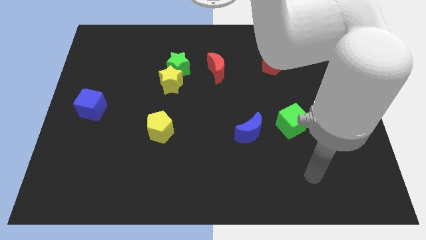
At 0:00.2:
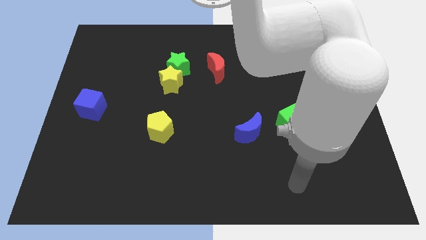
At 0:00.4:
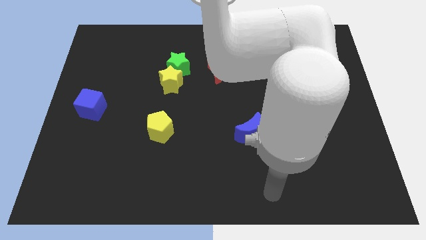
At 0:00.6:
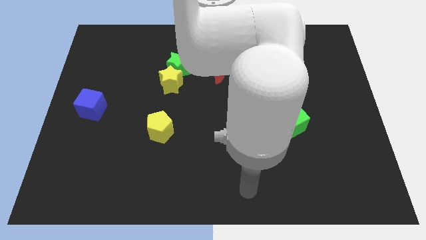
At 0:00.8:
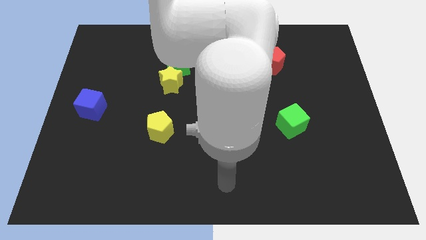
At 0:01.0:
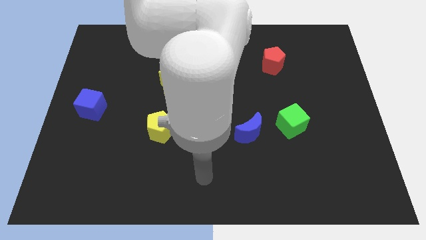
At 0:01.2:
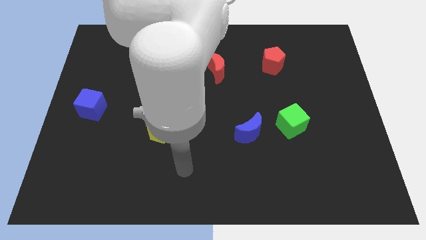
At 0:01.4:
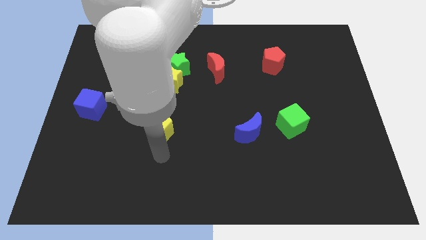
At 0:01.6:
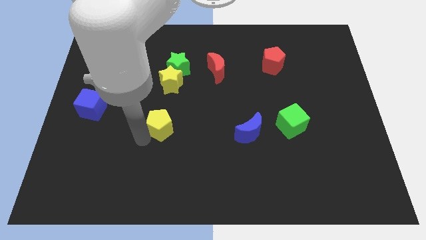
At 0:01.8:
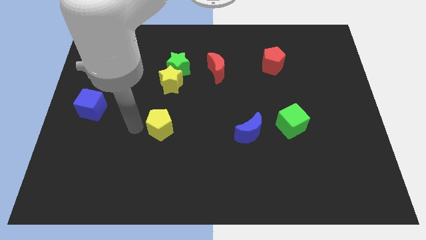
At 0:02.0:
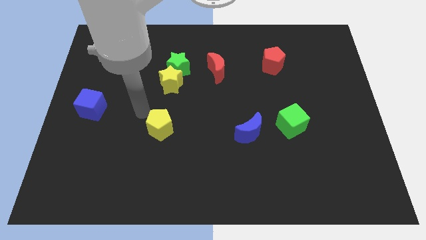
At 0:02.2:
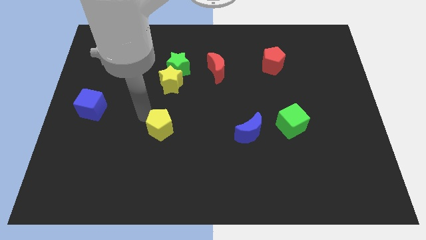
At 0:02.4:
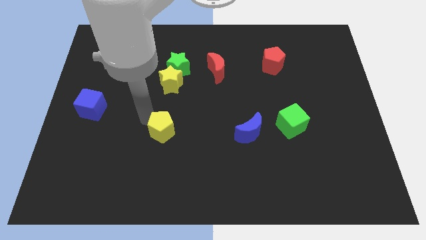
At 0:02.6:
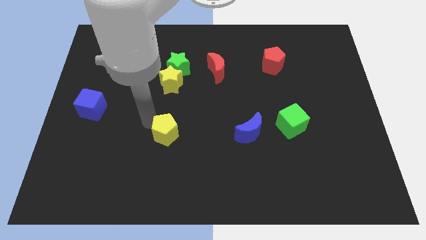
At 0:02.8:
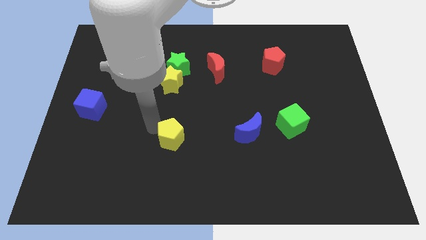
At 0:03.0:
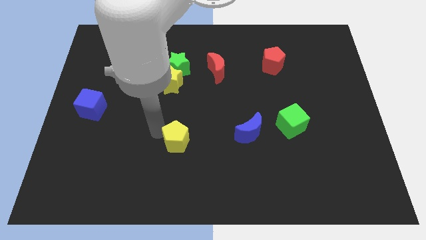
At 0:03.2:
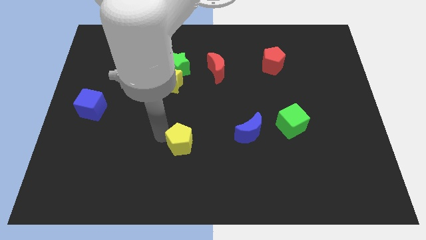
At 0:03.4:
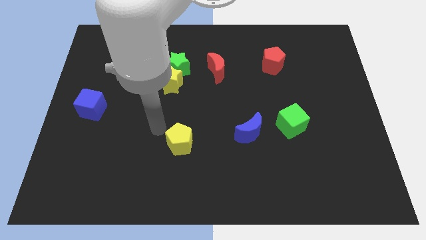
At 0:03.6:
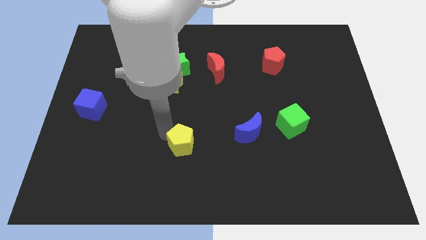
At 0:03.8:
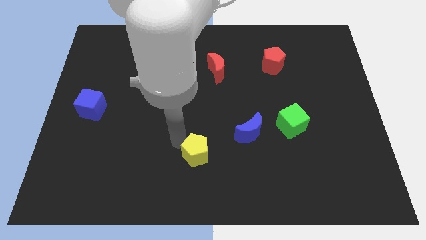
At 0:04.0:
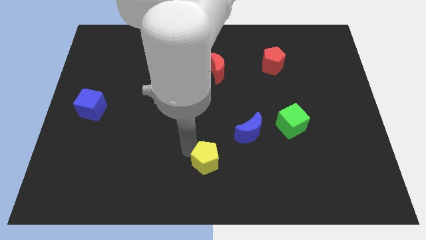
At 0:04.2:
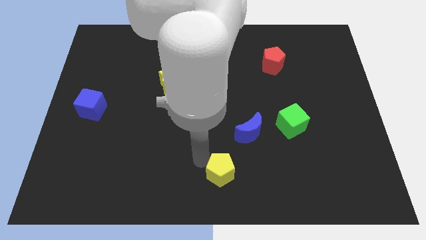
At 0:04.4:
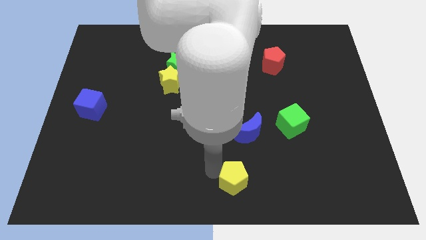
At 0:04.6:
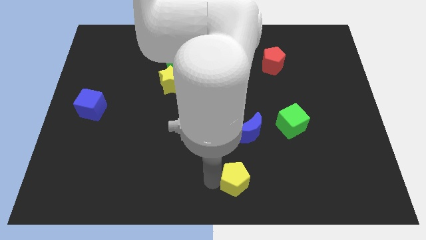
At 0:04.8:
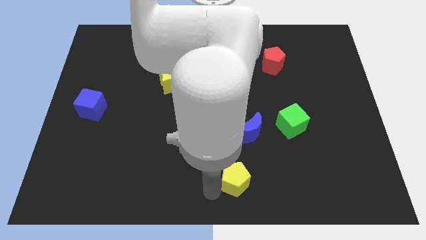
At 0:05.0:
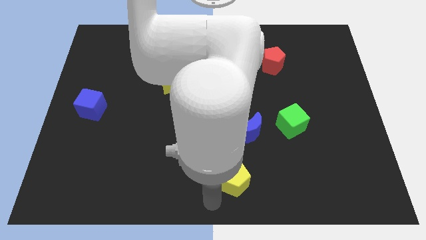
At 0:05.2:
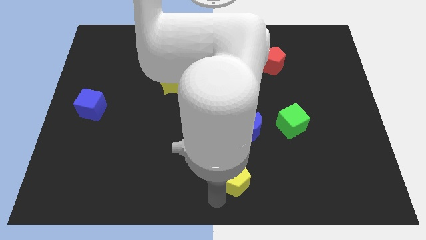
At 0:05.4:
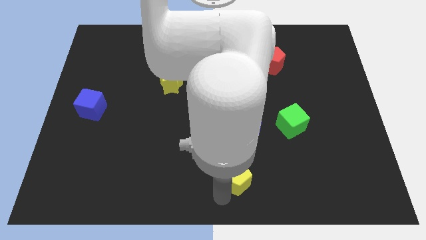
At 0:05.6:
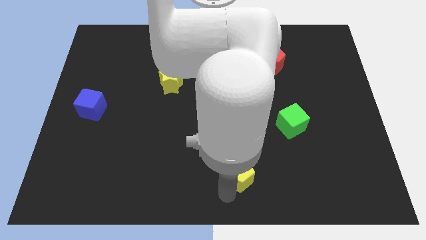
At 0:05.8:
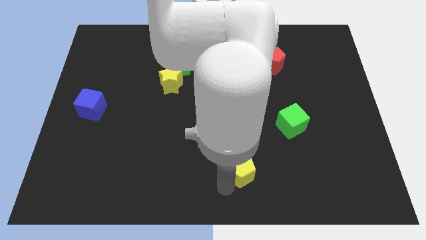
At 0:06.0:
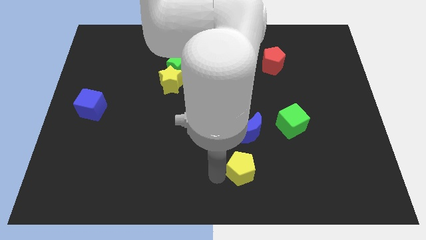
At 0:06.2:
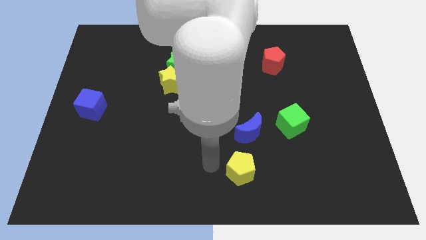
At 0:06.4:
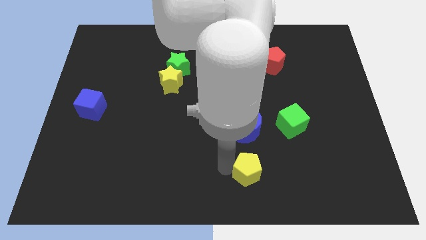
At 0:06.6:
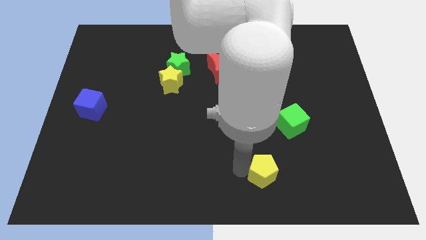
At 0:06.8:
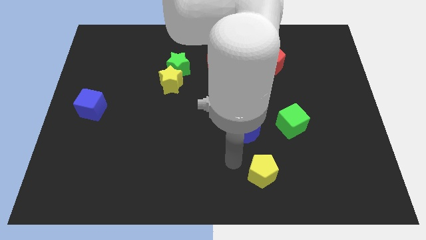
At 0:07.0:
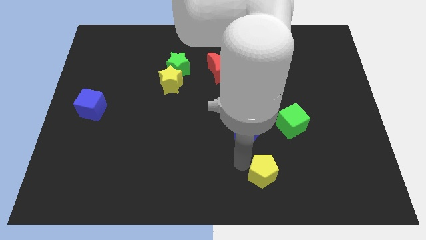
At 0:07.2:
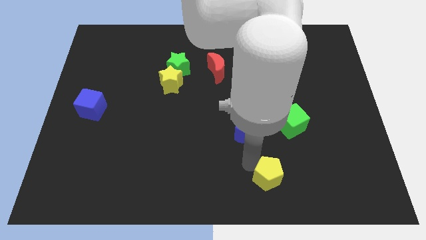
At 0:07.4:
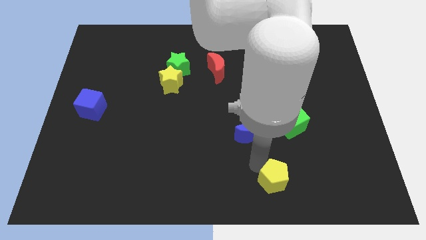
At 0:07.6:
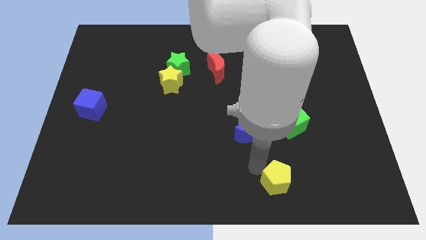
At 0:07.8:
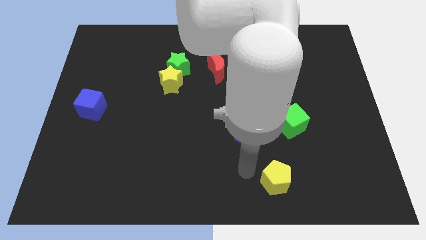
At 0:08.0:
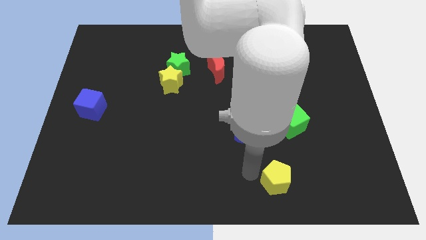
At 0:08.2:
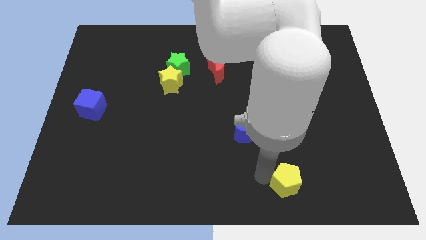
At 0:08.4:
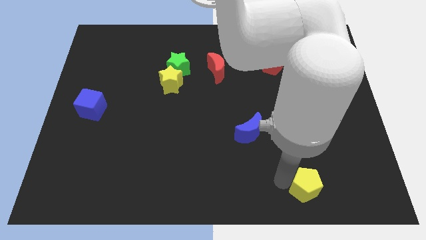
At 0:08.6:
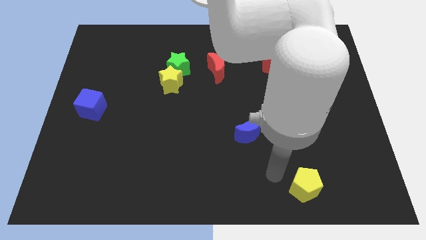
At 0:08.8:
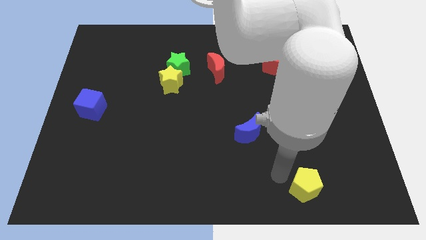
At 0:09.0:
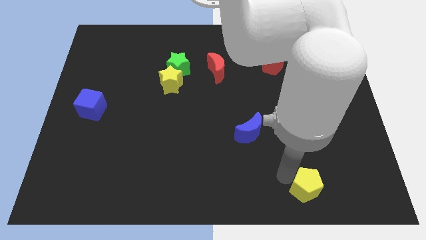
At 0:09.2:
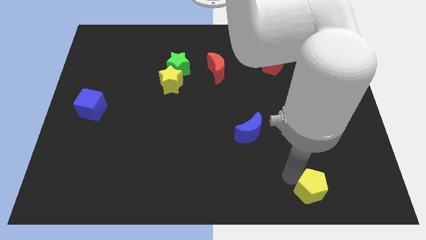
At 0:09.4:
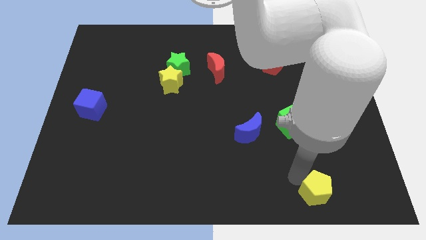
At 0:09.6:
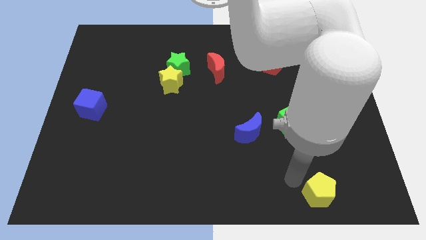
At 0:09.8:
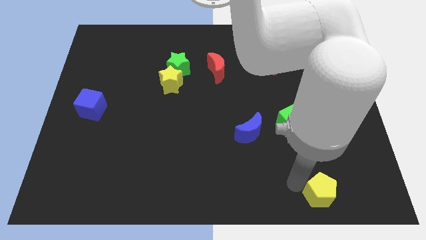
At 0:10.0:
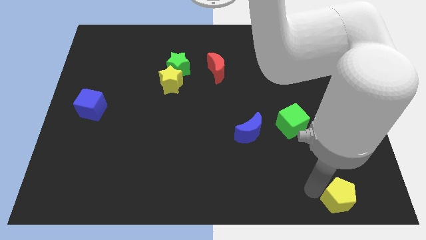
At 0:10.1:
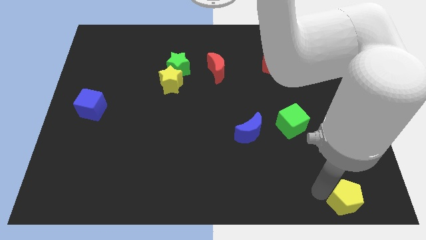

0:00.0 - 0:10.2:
push the yellow pentagon to the bottom right of the board
